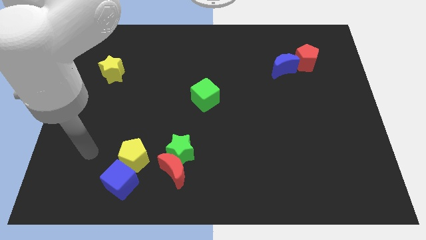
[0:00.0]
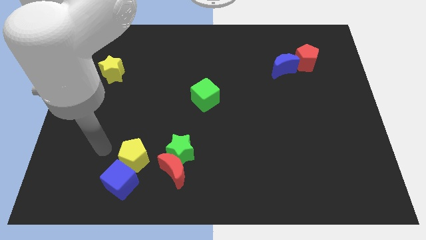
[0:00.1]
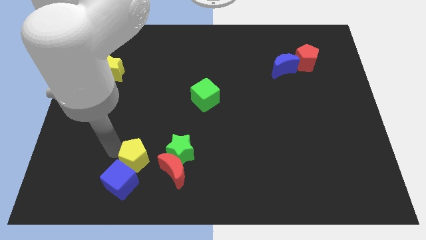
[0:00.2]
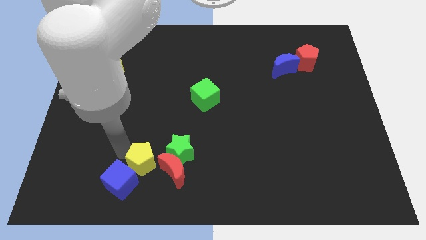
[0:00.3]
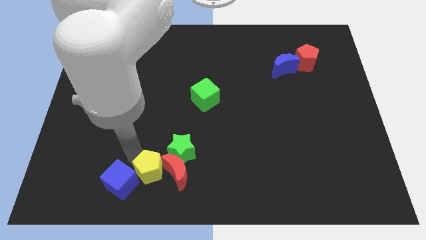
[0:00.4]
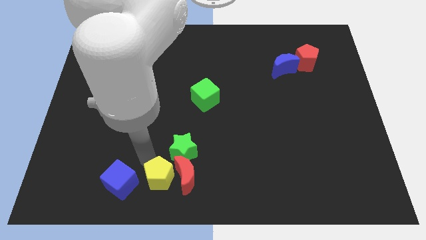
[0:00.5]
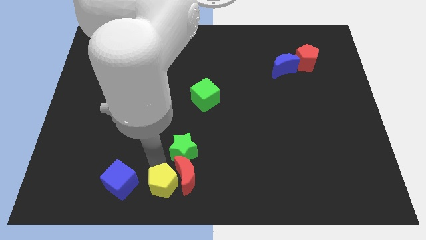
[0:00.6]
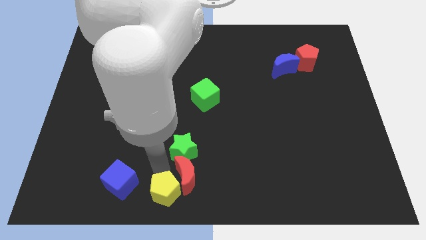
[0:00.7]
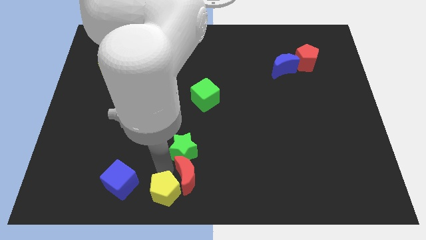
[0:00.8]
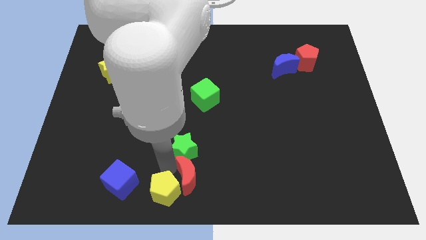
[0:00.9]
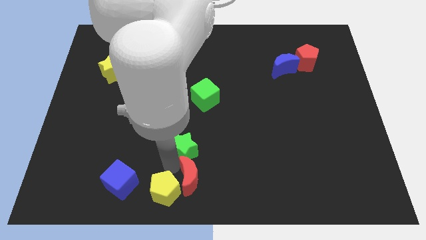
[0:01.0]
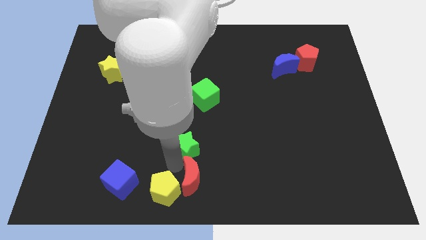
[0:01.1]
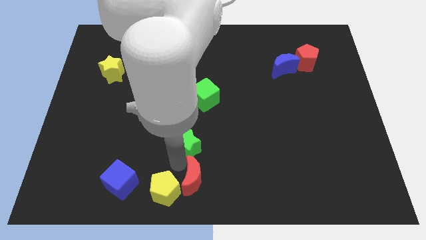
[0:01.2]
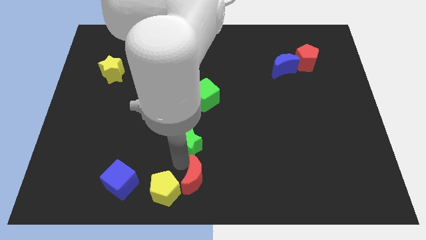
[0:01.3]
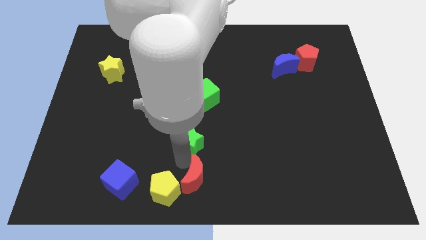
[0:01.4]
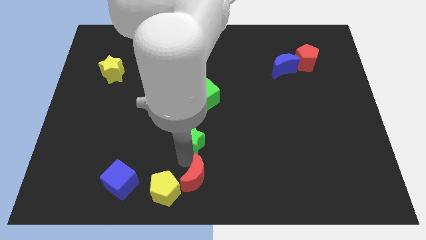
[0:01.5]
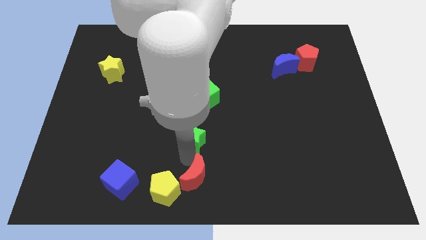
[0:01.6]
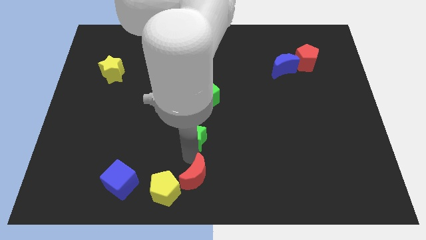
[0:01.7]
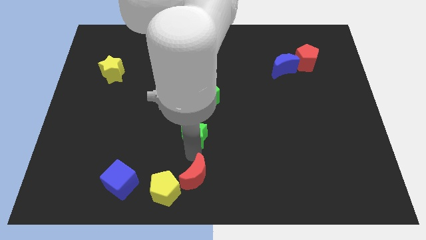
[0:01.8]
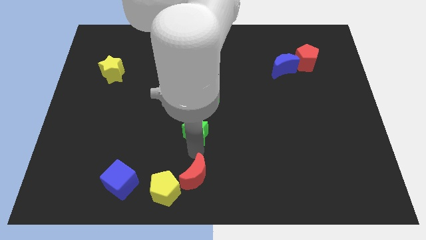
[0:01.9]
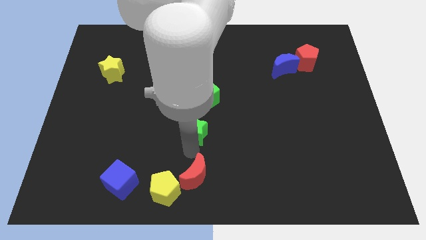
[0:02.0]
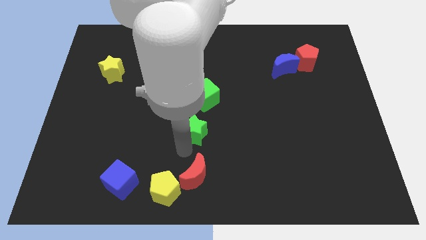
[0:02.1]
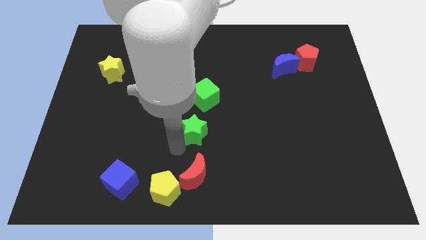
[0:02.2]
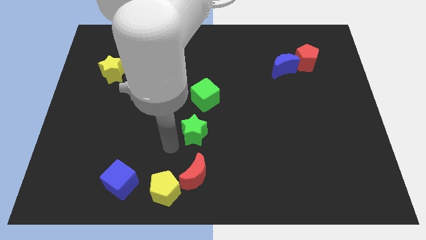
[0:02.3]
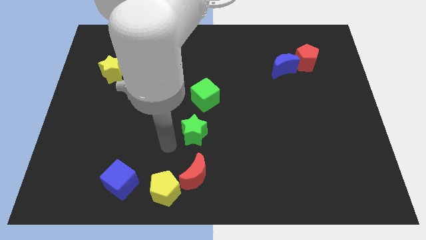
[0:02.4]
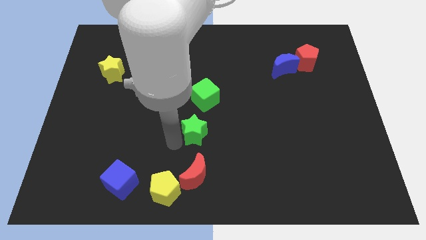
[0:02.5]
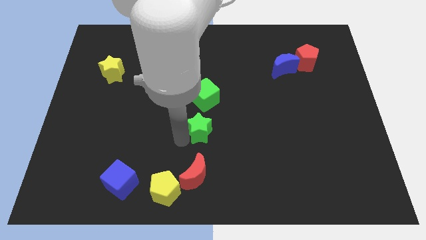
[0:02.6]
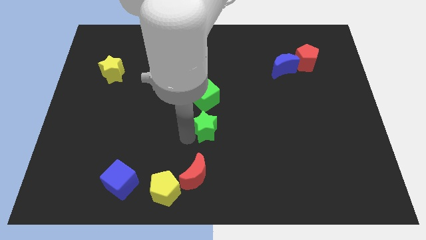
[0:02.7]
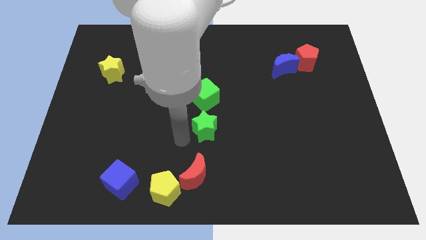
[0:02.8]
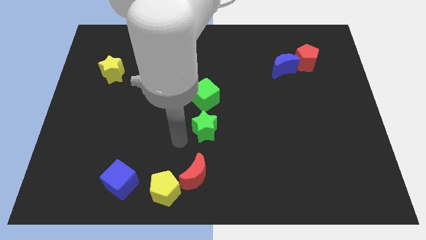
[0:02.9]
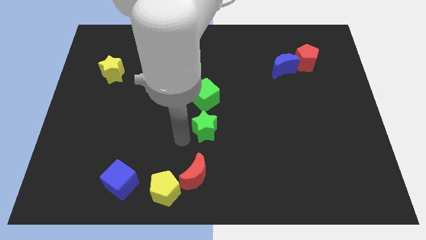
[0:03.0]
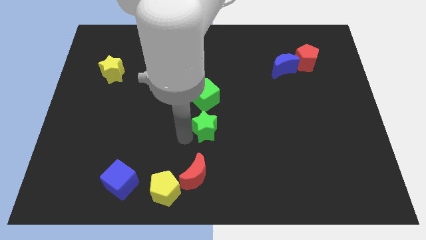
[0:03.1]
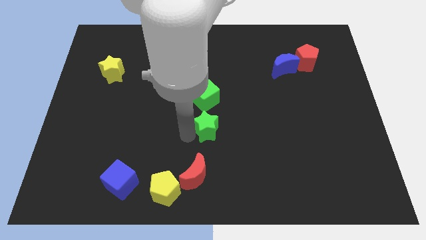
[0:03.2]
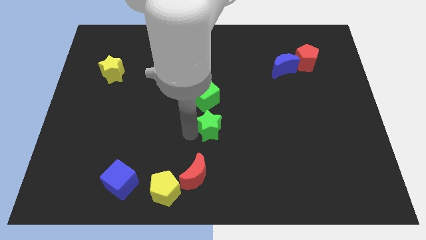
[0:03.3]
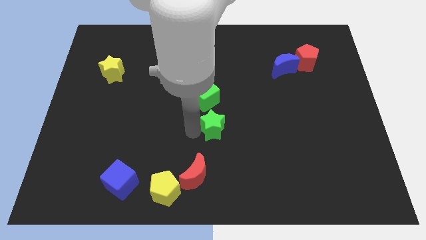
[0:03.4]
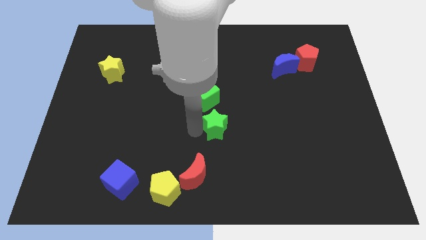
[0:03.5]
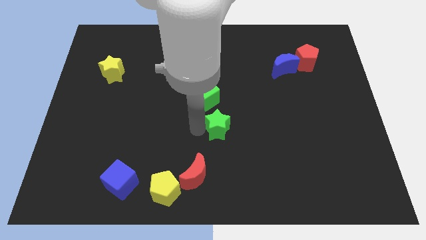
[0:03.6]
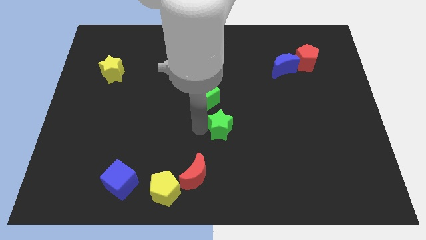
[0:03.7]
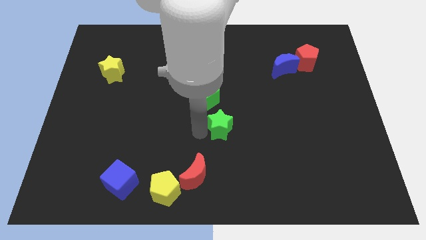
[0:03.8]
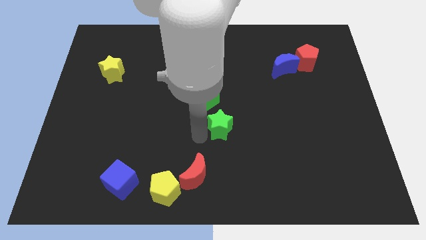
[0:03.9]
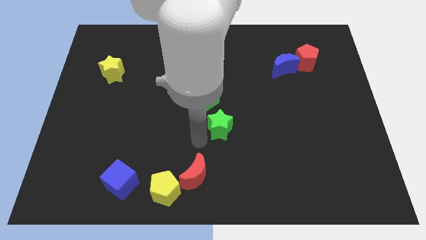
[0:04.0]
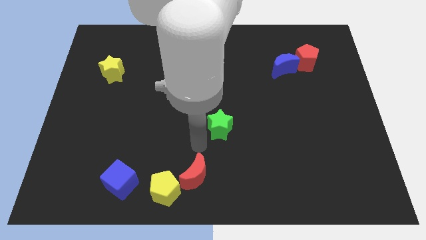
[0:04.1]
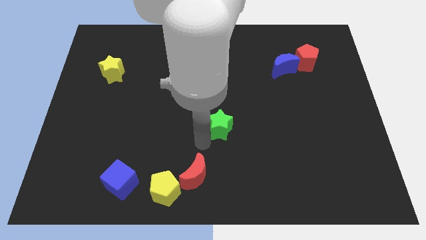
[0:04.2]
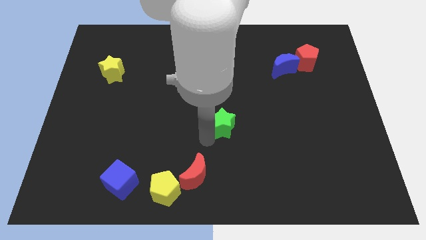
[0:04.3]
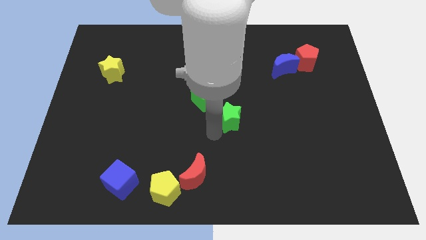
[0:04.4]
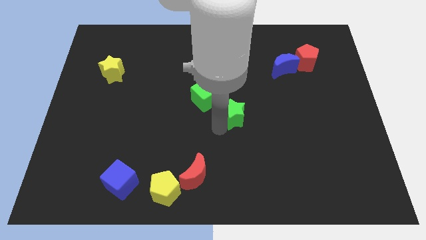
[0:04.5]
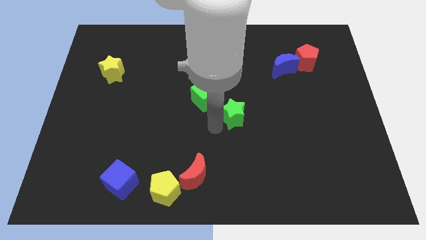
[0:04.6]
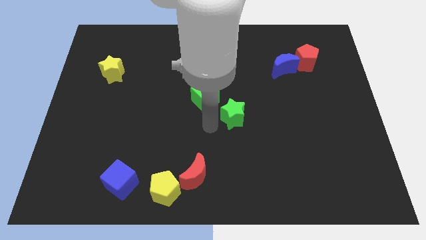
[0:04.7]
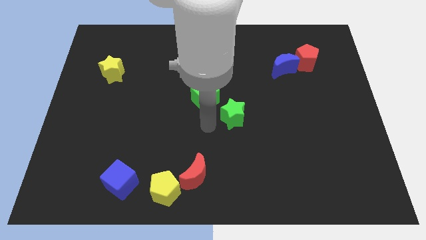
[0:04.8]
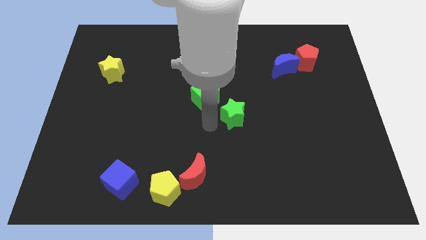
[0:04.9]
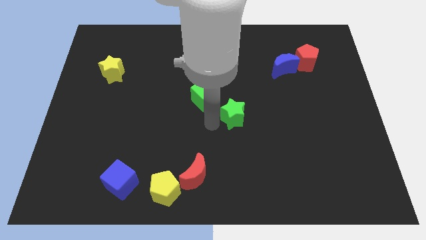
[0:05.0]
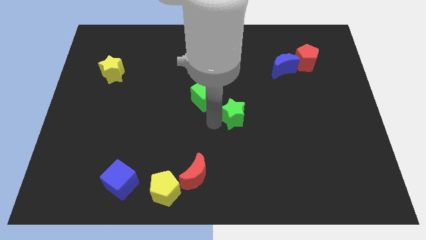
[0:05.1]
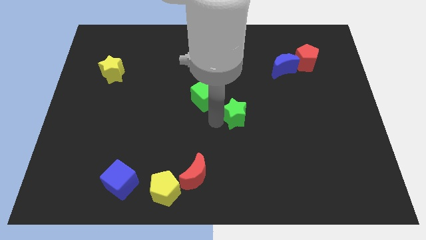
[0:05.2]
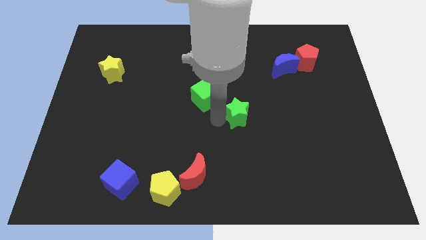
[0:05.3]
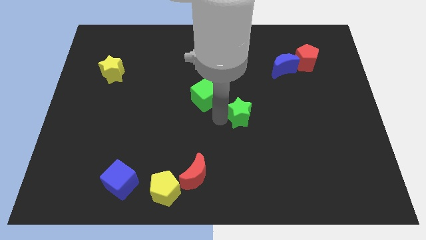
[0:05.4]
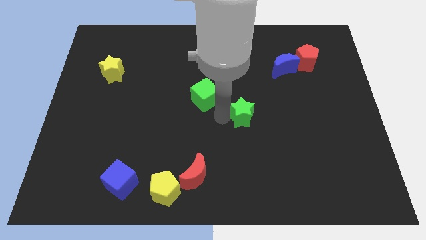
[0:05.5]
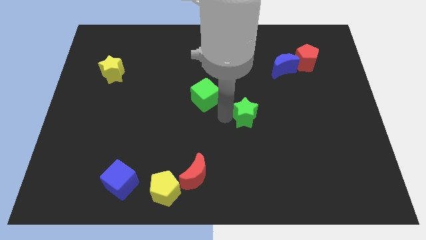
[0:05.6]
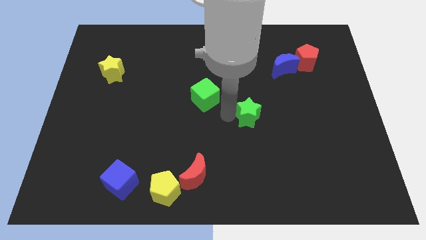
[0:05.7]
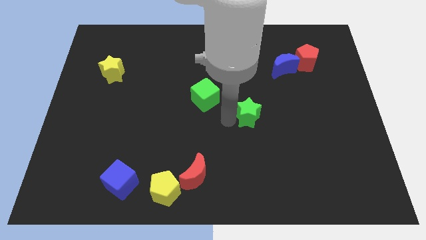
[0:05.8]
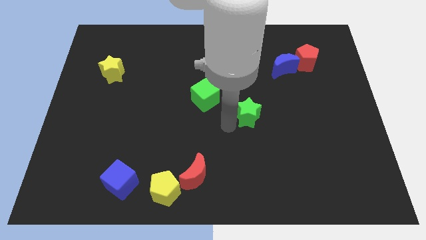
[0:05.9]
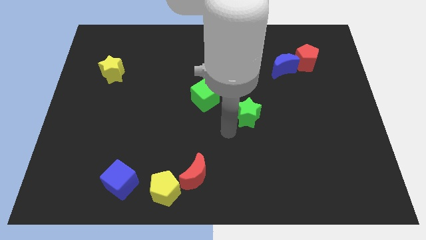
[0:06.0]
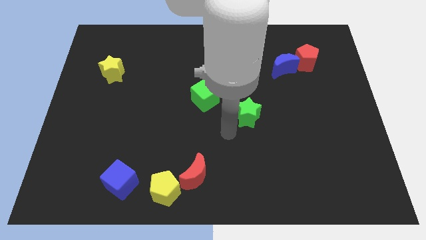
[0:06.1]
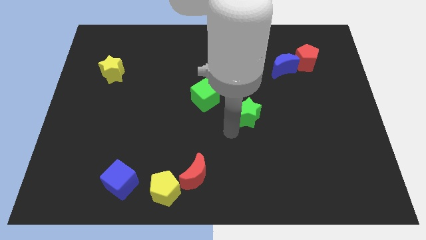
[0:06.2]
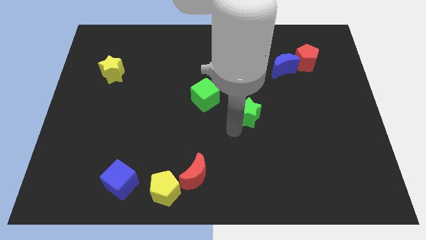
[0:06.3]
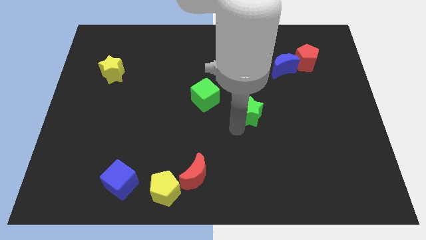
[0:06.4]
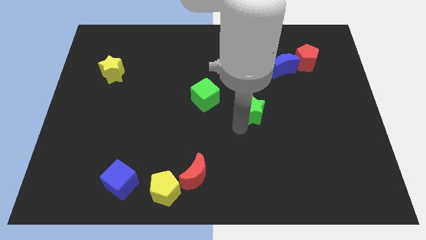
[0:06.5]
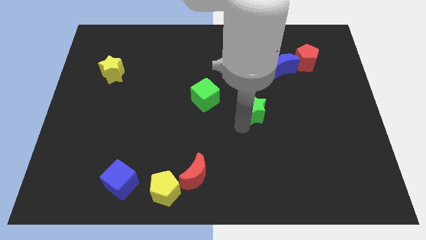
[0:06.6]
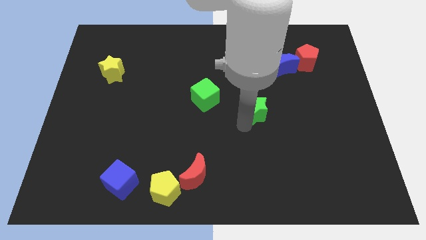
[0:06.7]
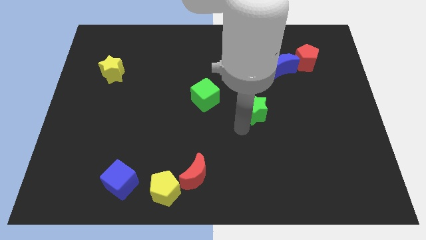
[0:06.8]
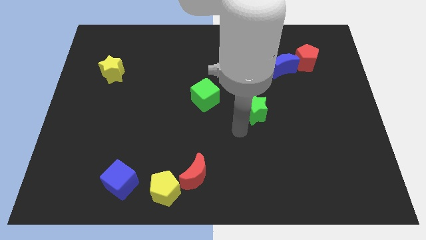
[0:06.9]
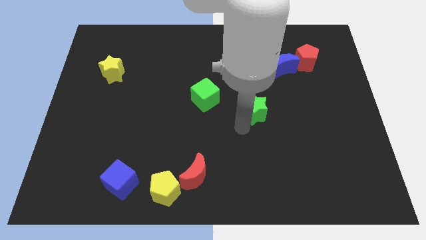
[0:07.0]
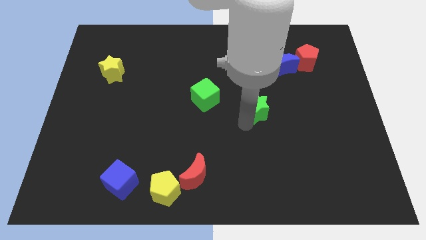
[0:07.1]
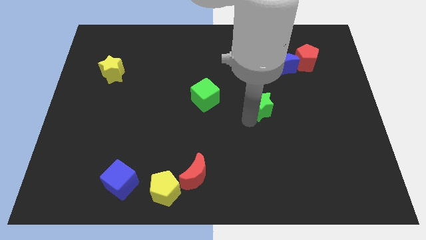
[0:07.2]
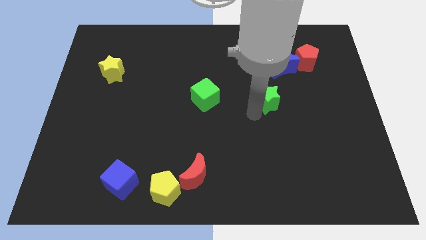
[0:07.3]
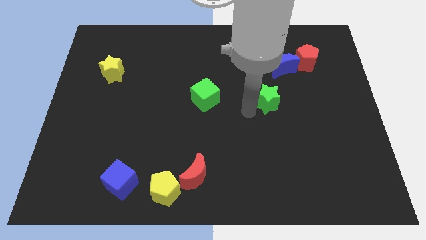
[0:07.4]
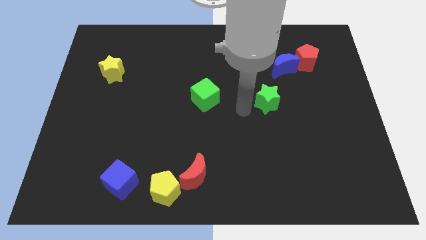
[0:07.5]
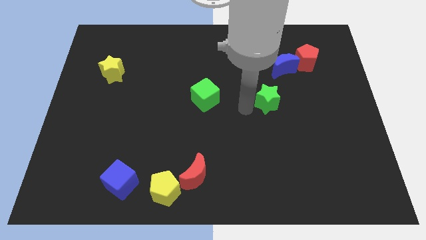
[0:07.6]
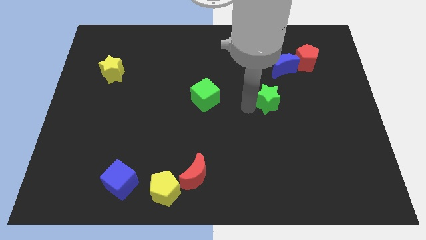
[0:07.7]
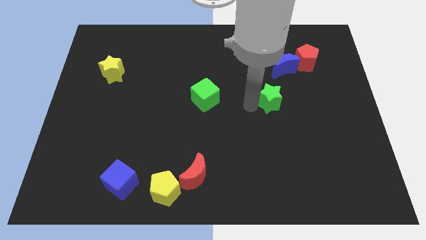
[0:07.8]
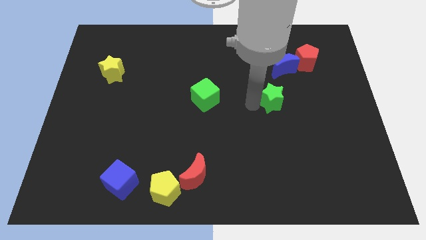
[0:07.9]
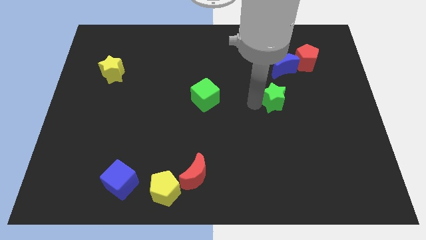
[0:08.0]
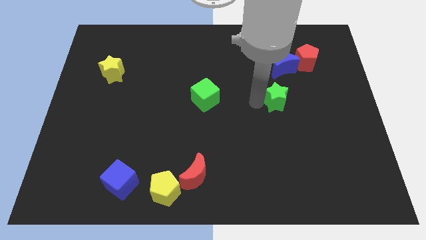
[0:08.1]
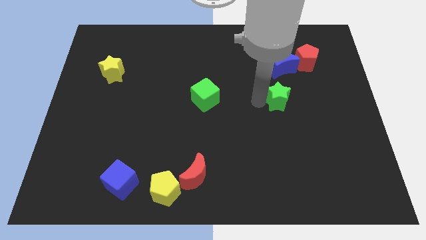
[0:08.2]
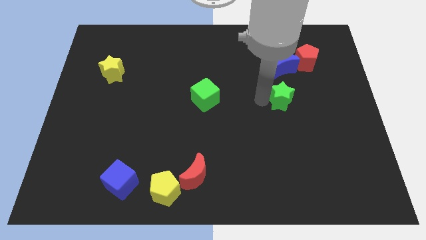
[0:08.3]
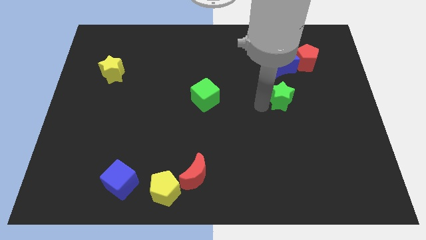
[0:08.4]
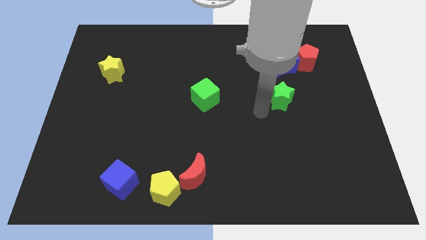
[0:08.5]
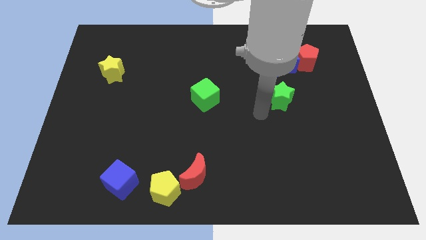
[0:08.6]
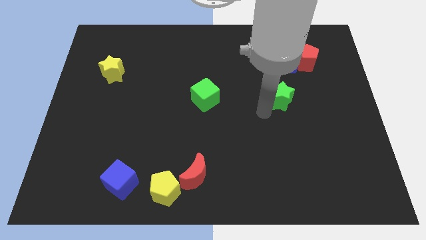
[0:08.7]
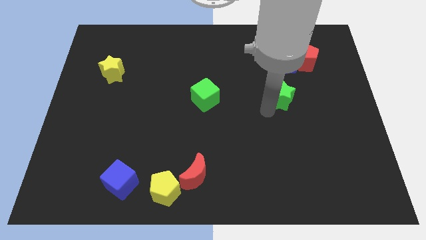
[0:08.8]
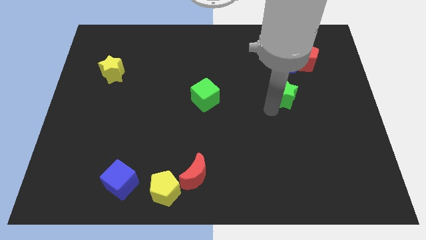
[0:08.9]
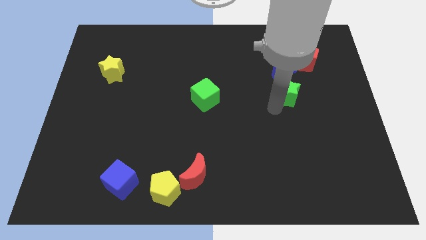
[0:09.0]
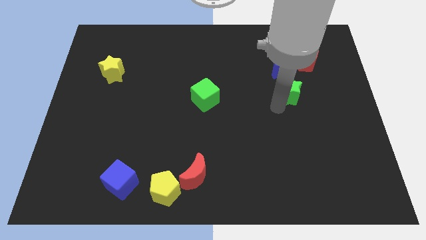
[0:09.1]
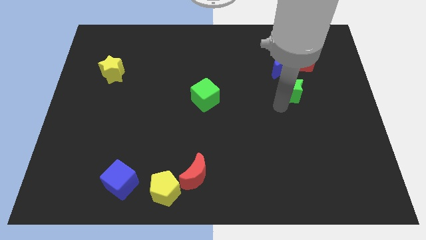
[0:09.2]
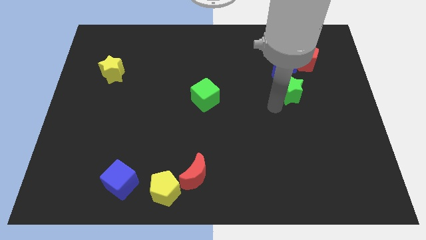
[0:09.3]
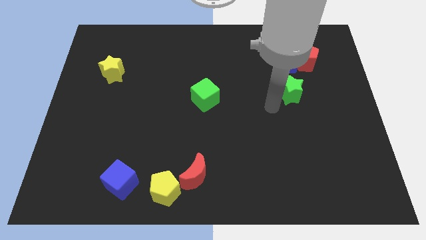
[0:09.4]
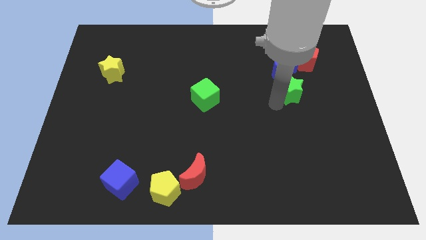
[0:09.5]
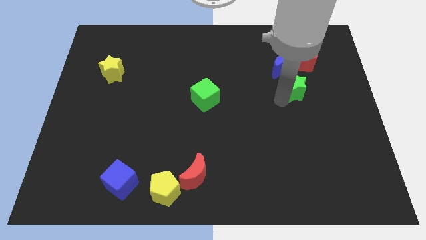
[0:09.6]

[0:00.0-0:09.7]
push the green star to the bottom right of the blue moon
